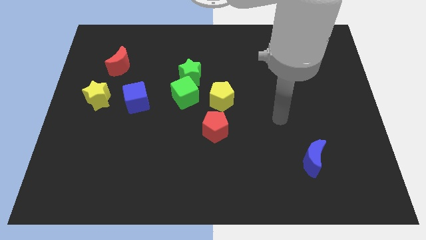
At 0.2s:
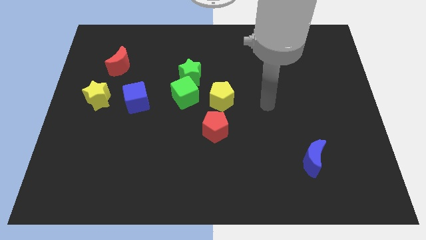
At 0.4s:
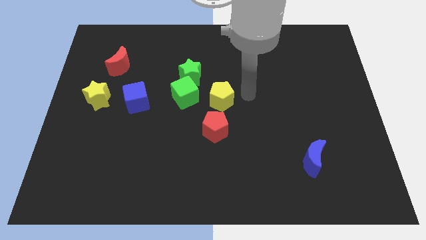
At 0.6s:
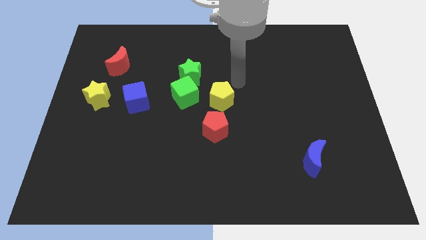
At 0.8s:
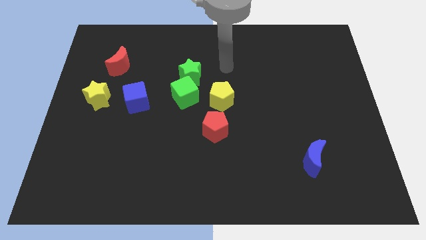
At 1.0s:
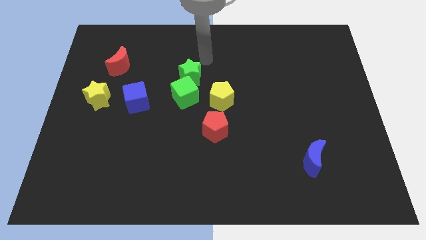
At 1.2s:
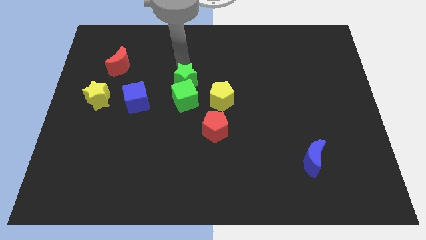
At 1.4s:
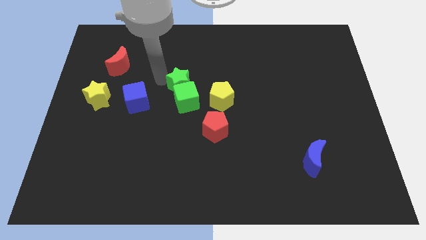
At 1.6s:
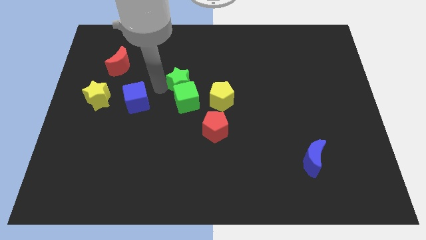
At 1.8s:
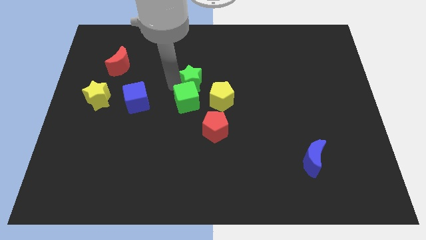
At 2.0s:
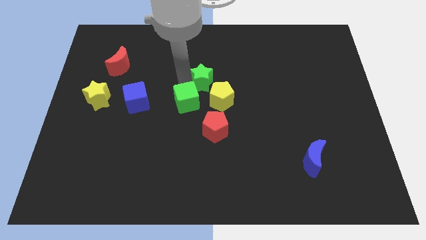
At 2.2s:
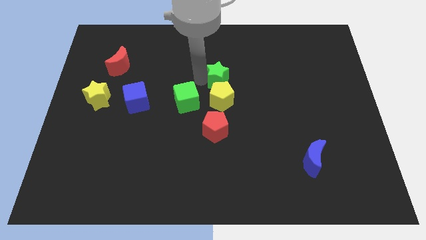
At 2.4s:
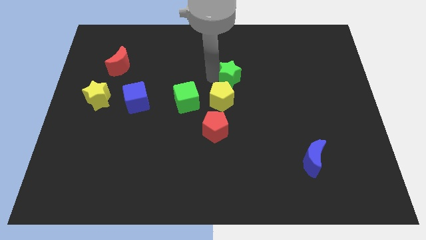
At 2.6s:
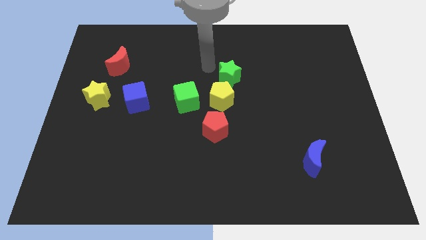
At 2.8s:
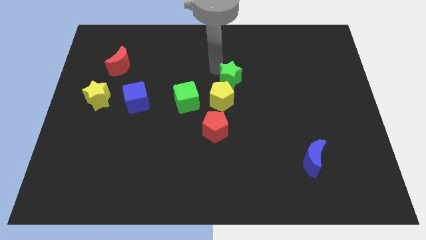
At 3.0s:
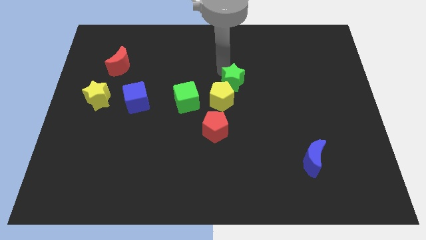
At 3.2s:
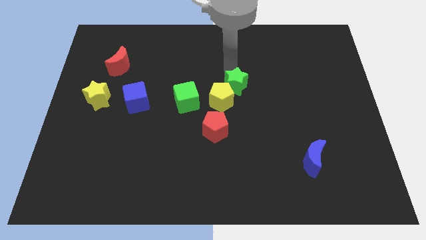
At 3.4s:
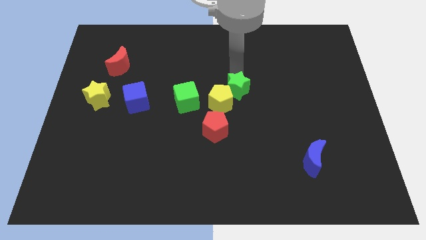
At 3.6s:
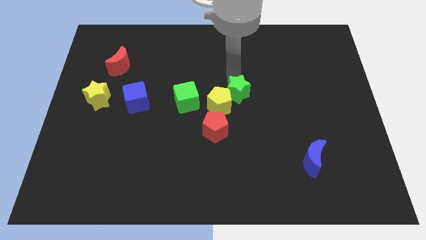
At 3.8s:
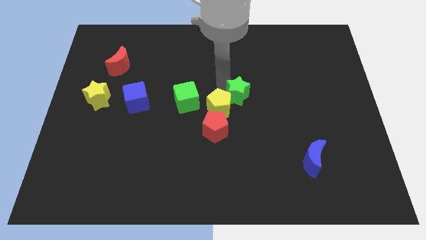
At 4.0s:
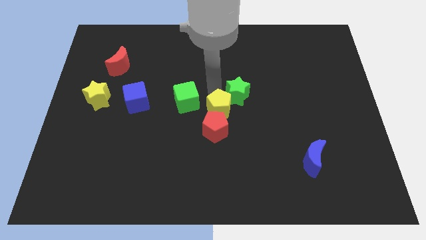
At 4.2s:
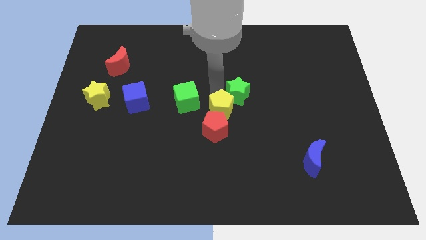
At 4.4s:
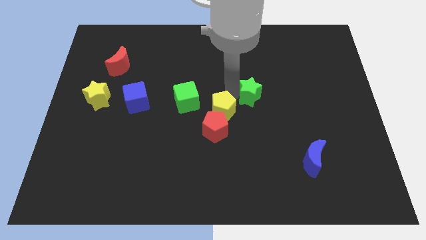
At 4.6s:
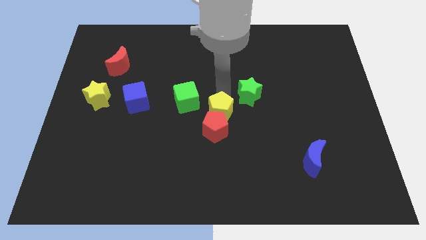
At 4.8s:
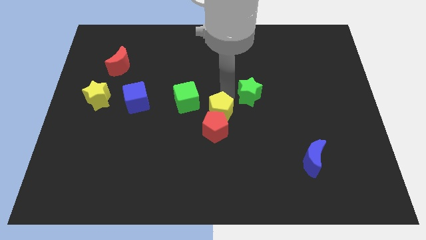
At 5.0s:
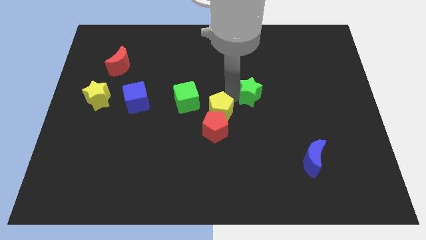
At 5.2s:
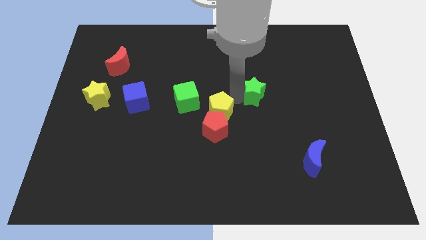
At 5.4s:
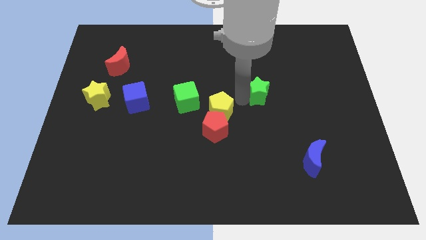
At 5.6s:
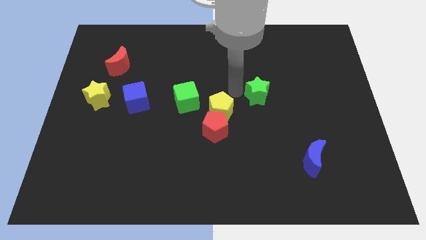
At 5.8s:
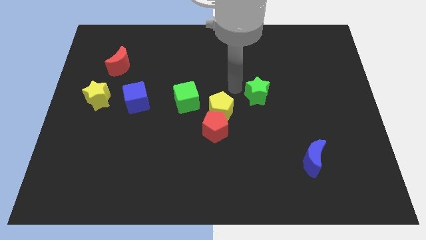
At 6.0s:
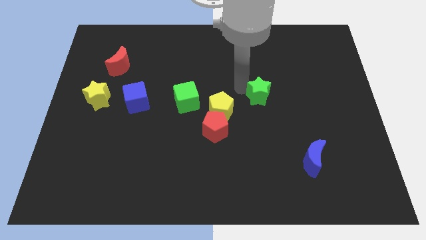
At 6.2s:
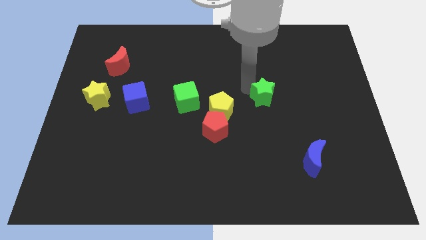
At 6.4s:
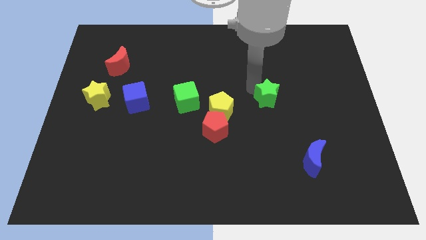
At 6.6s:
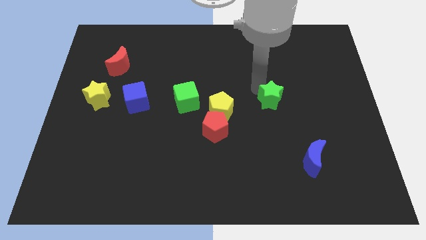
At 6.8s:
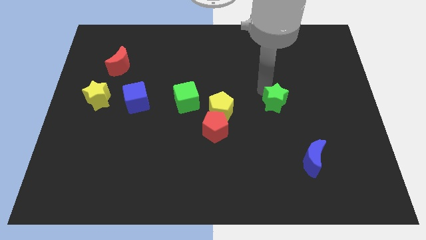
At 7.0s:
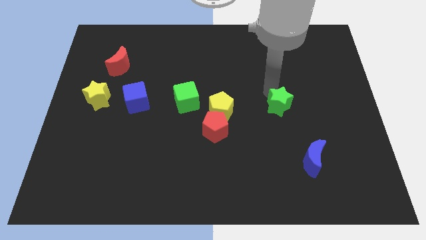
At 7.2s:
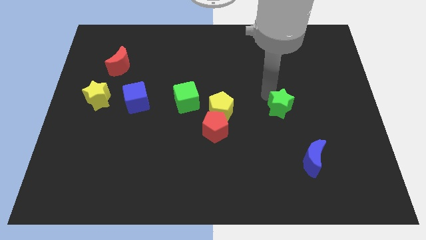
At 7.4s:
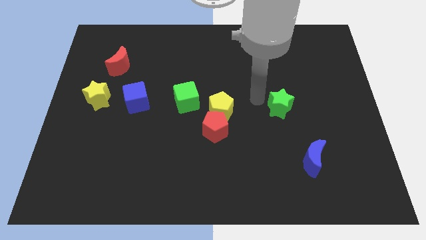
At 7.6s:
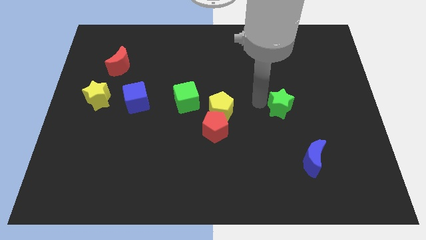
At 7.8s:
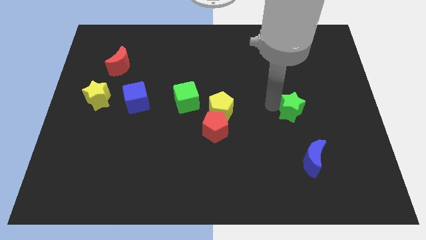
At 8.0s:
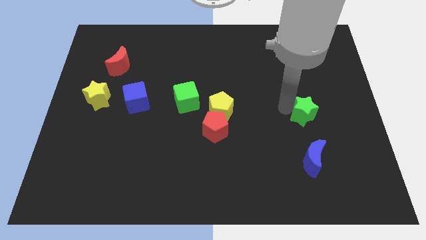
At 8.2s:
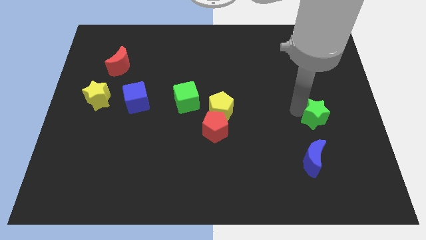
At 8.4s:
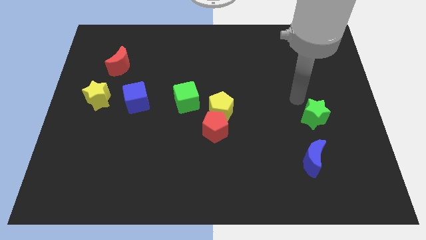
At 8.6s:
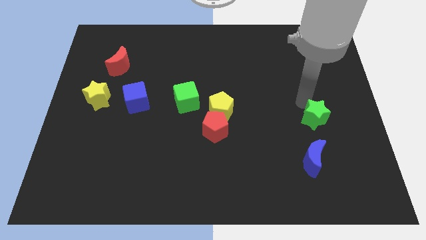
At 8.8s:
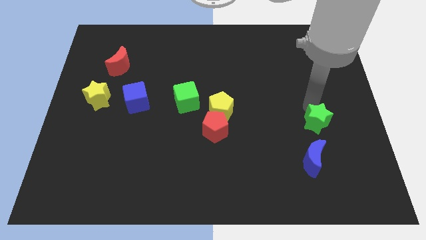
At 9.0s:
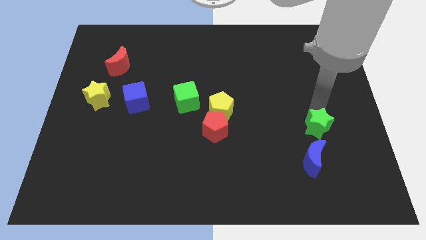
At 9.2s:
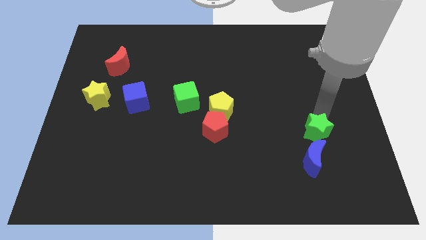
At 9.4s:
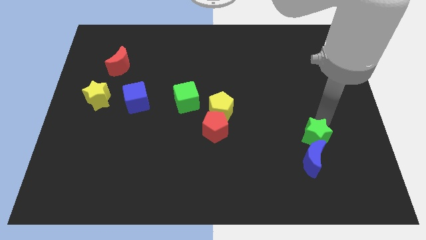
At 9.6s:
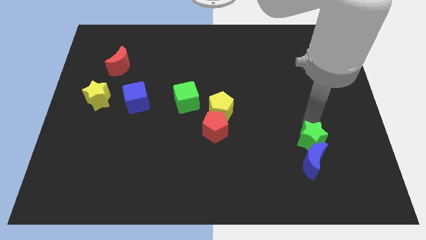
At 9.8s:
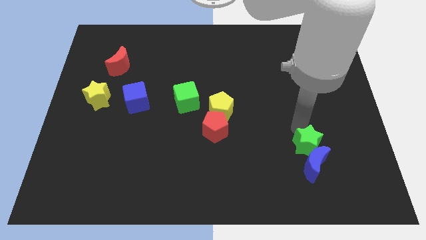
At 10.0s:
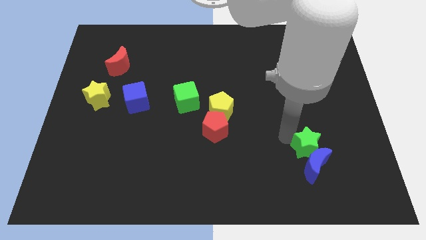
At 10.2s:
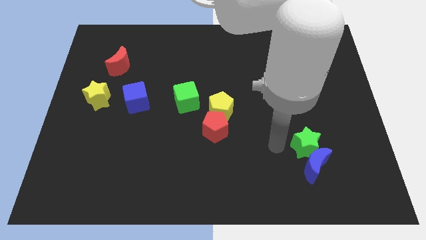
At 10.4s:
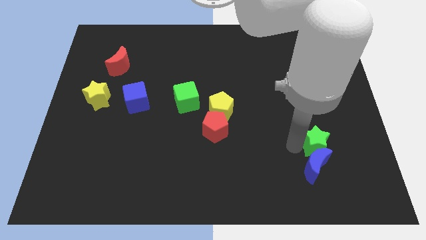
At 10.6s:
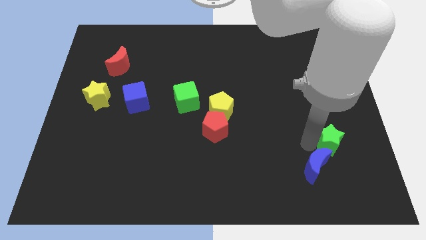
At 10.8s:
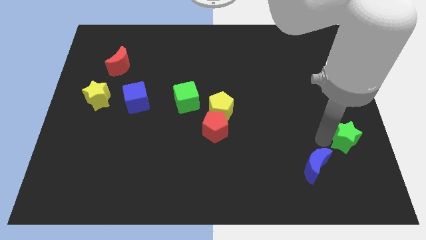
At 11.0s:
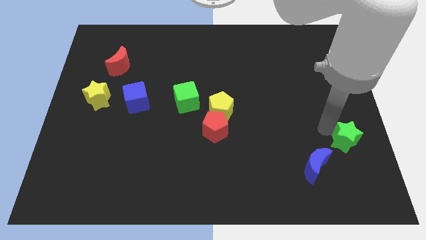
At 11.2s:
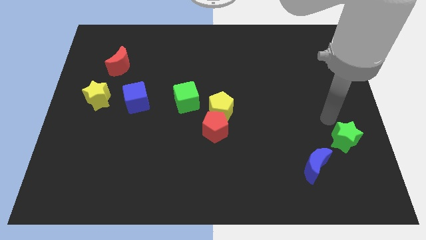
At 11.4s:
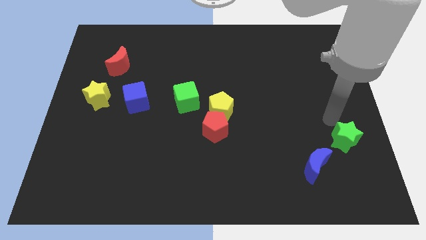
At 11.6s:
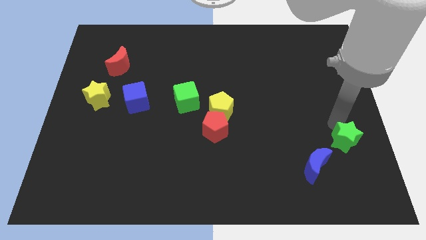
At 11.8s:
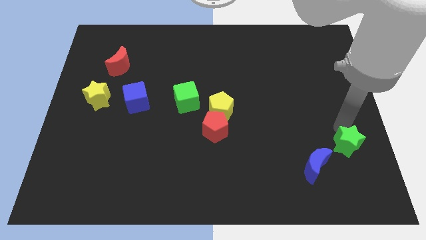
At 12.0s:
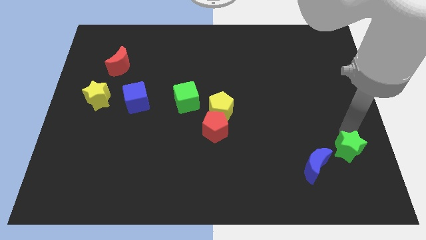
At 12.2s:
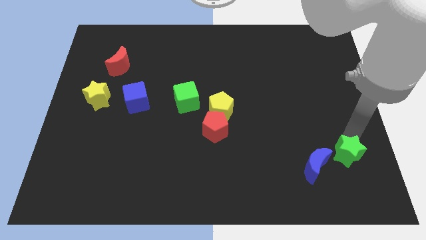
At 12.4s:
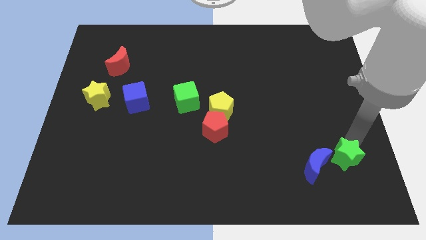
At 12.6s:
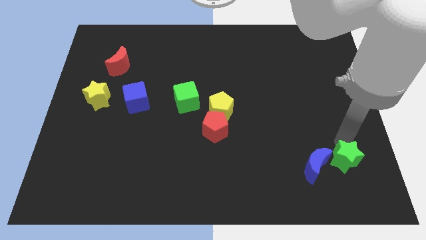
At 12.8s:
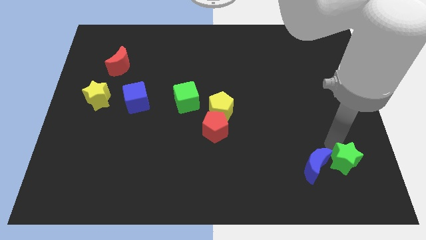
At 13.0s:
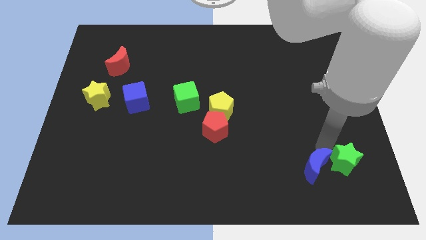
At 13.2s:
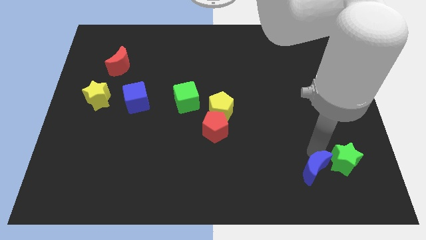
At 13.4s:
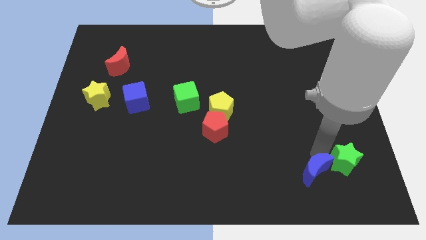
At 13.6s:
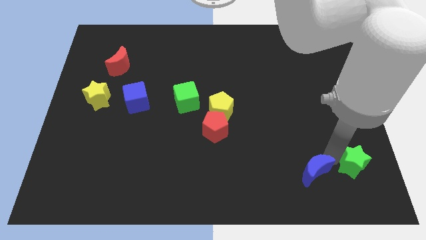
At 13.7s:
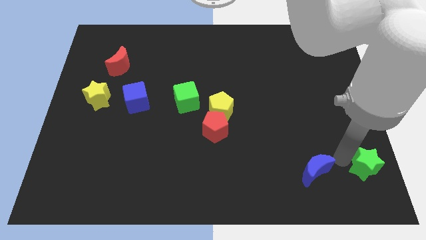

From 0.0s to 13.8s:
move the green star to the bottom right corner
